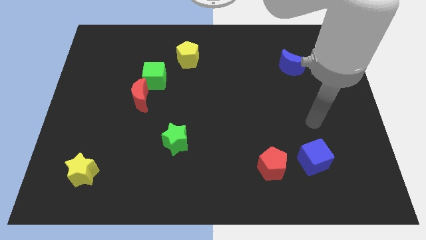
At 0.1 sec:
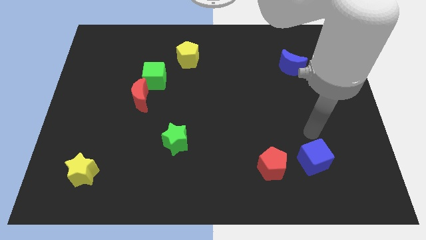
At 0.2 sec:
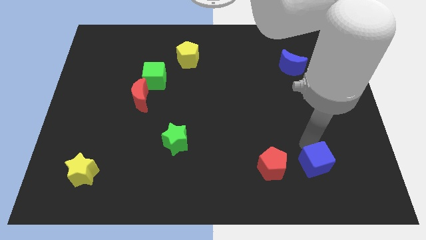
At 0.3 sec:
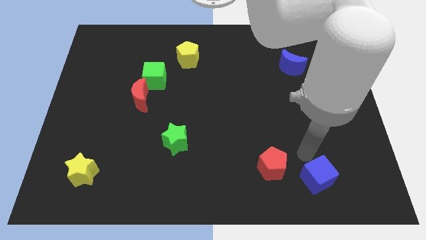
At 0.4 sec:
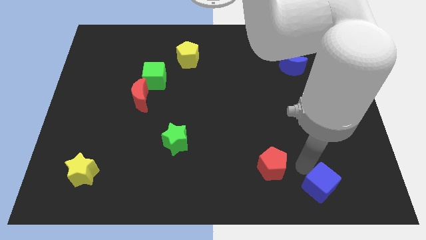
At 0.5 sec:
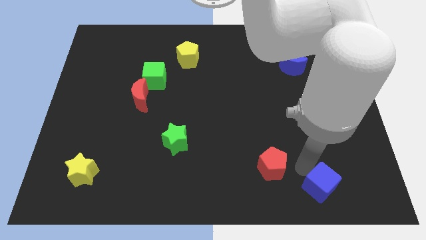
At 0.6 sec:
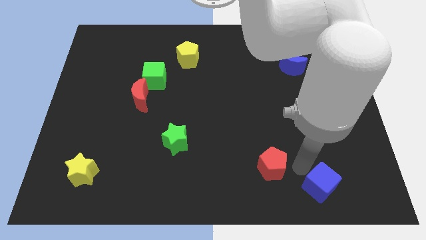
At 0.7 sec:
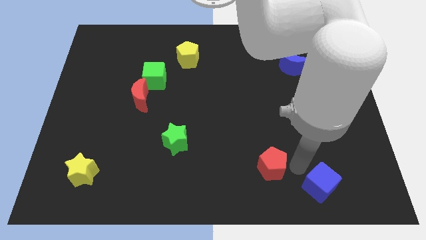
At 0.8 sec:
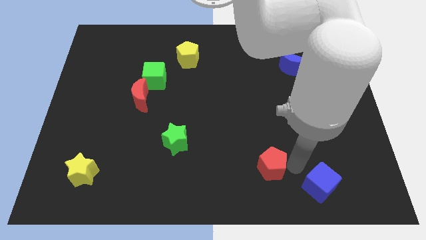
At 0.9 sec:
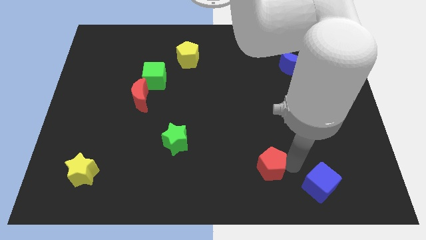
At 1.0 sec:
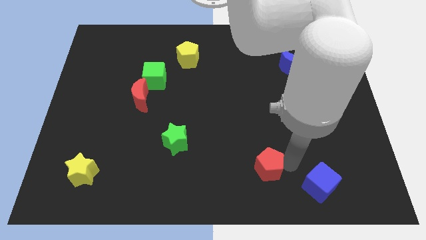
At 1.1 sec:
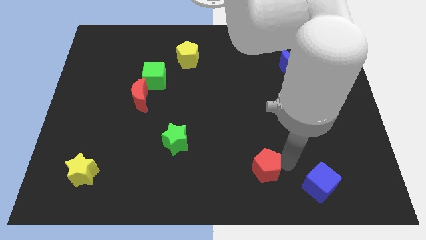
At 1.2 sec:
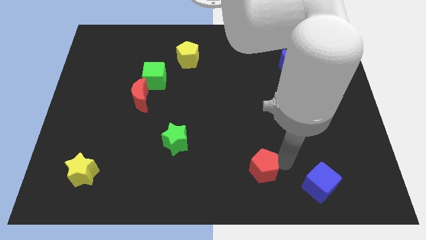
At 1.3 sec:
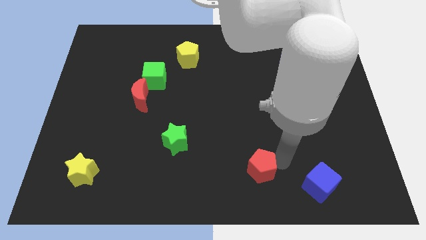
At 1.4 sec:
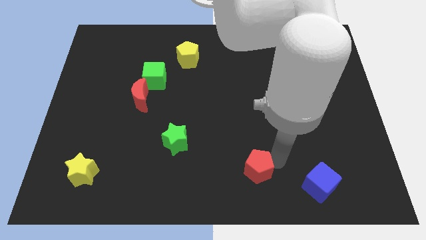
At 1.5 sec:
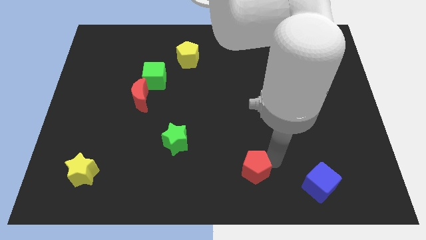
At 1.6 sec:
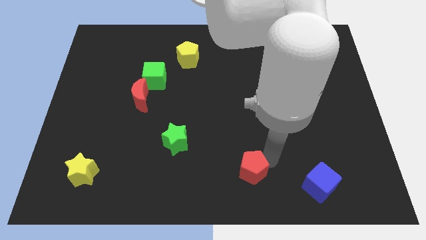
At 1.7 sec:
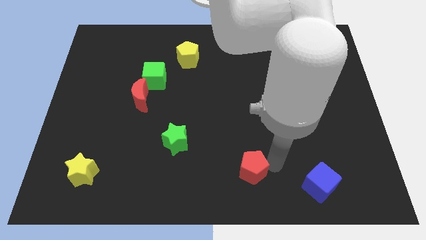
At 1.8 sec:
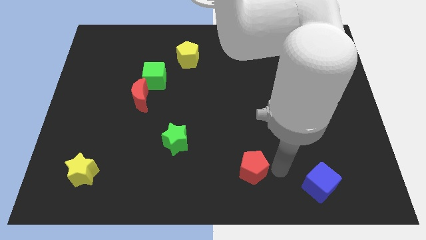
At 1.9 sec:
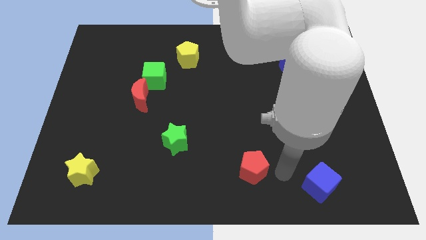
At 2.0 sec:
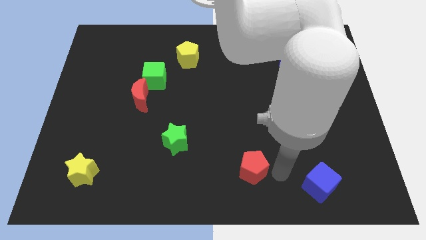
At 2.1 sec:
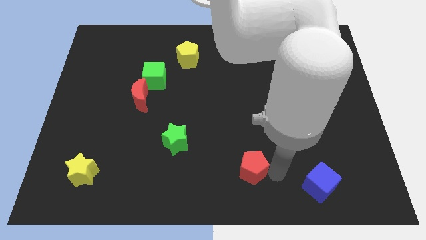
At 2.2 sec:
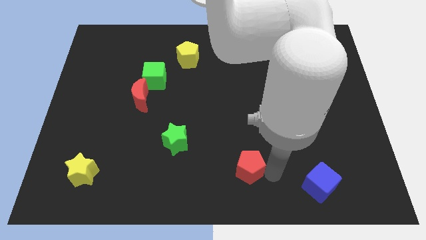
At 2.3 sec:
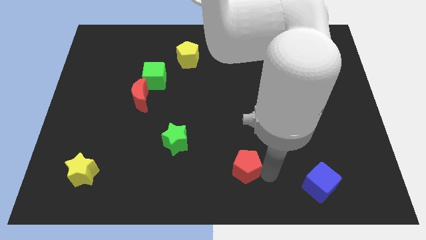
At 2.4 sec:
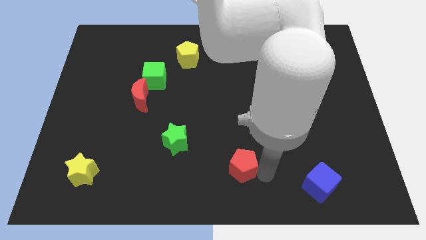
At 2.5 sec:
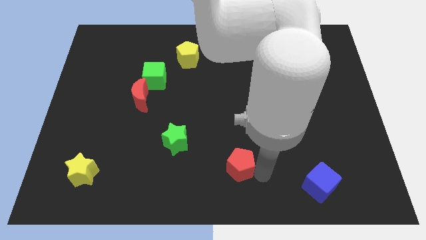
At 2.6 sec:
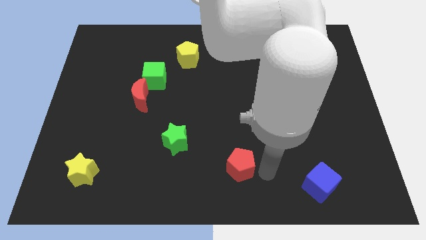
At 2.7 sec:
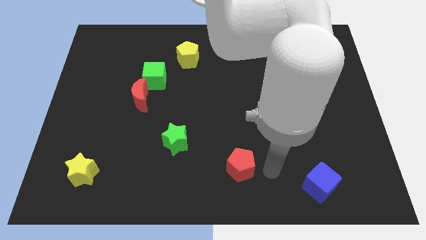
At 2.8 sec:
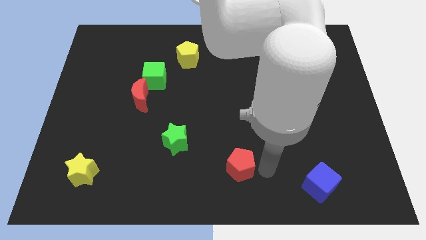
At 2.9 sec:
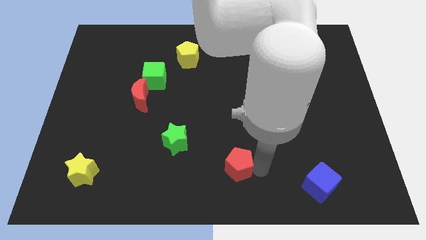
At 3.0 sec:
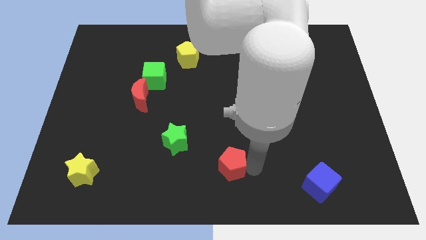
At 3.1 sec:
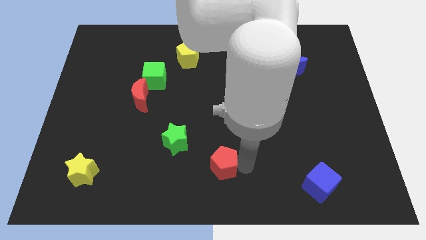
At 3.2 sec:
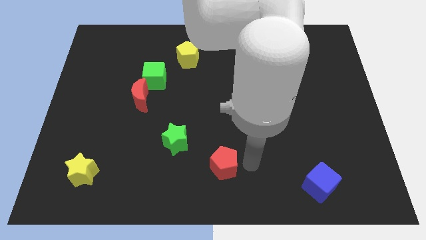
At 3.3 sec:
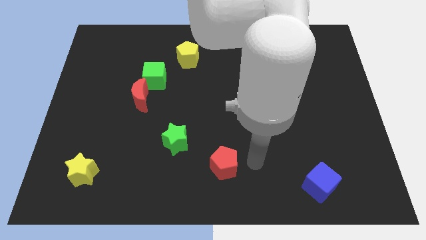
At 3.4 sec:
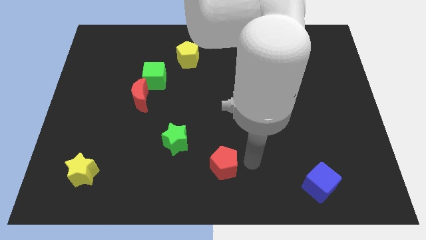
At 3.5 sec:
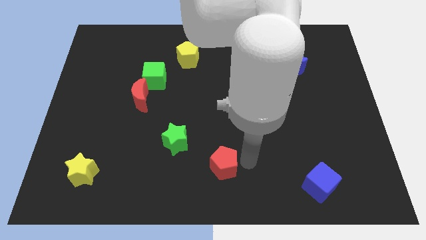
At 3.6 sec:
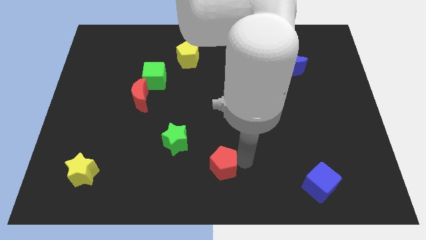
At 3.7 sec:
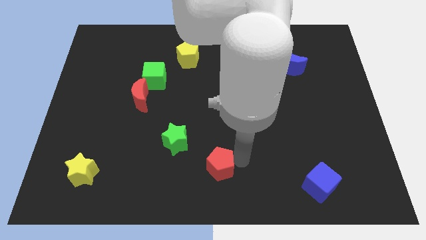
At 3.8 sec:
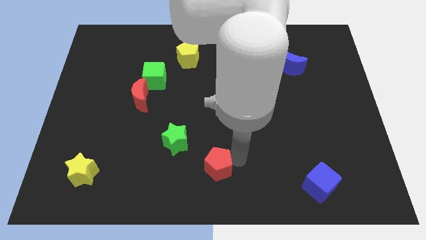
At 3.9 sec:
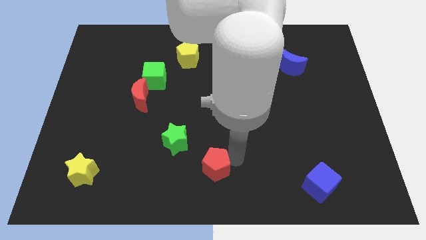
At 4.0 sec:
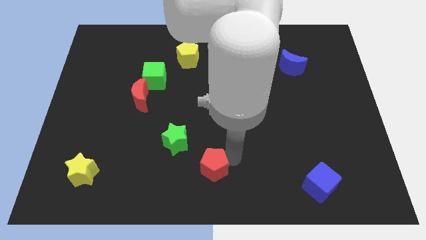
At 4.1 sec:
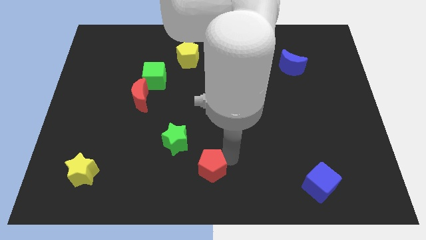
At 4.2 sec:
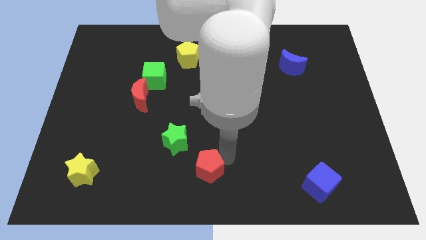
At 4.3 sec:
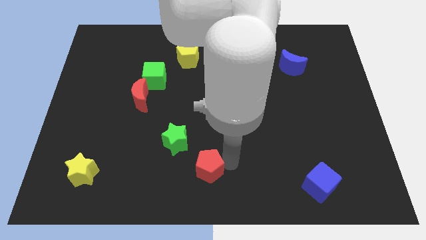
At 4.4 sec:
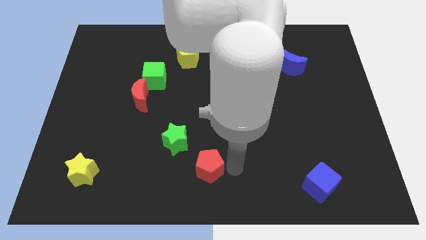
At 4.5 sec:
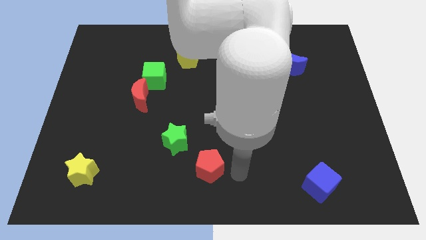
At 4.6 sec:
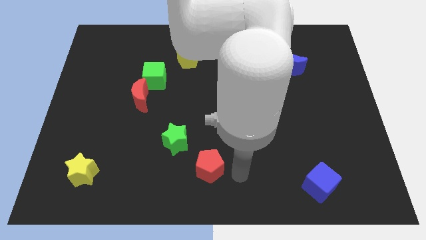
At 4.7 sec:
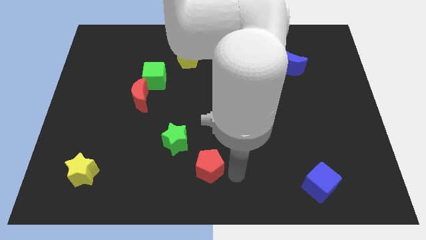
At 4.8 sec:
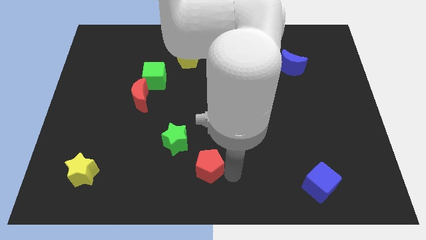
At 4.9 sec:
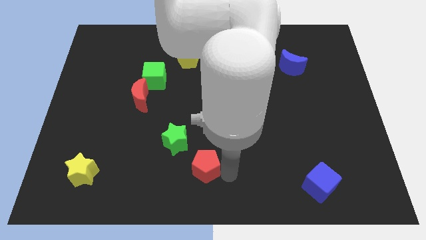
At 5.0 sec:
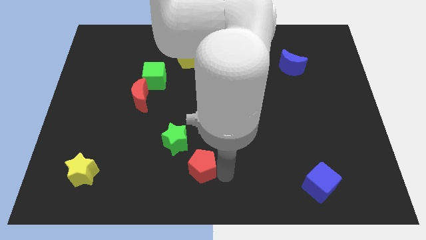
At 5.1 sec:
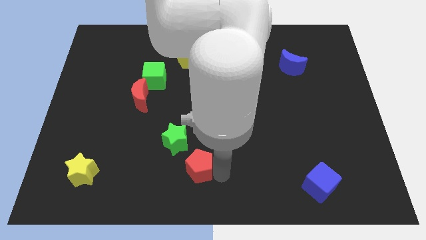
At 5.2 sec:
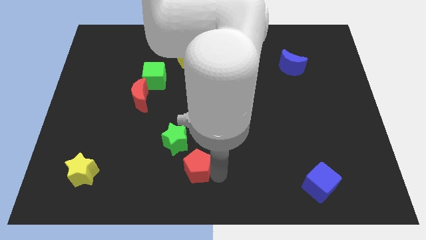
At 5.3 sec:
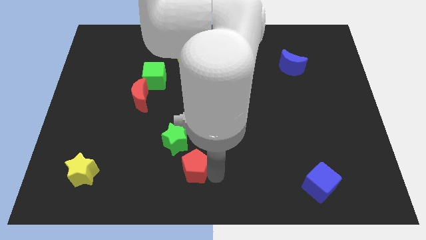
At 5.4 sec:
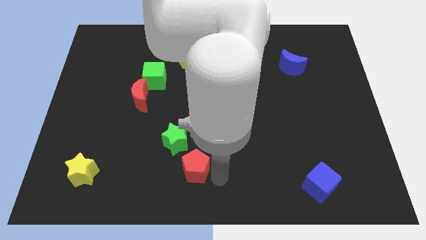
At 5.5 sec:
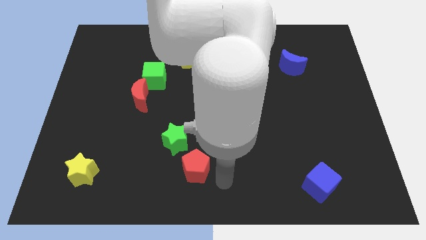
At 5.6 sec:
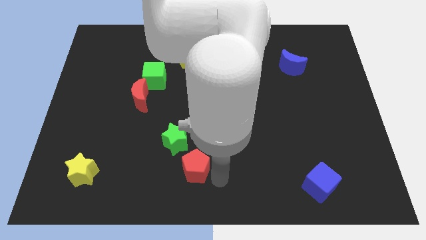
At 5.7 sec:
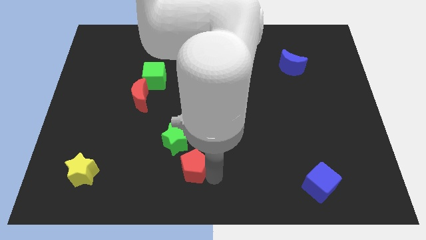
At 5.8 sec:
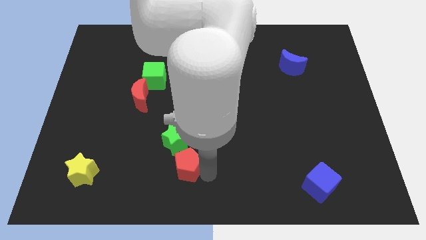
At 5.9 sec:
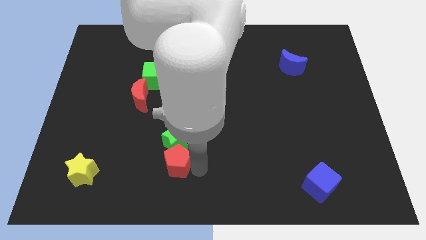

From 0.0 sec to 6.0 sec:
push the red pentagon to the left

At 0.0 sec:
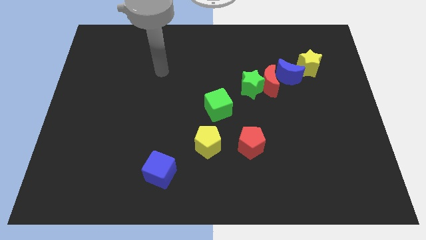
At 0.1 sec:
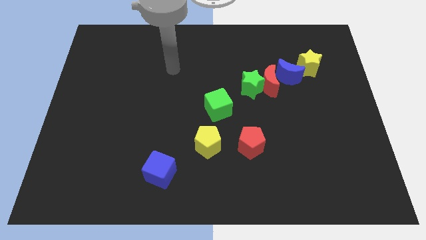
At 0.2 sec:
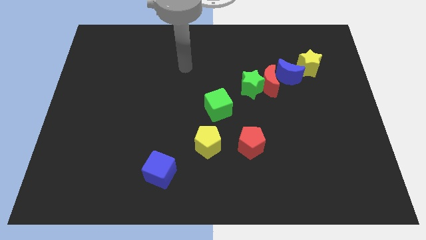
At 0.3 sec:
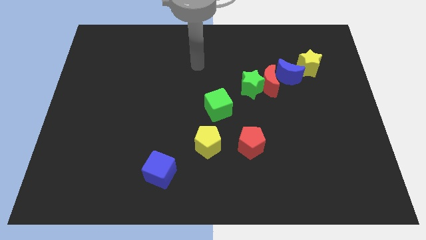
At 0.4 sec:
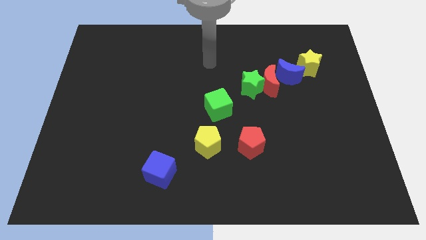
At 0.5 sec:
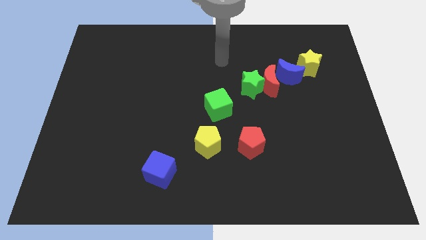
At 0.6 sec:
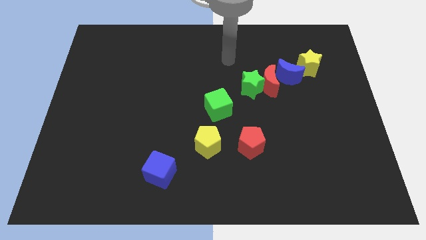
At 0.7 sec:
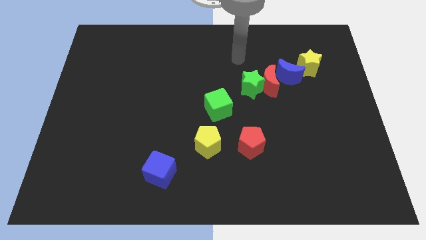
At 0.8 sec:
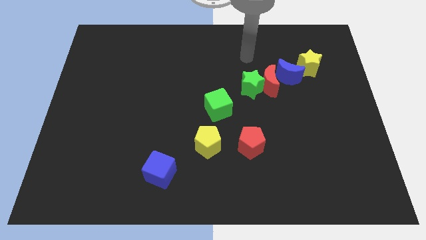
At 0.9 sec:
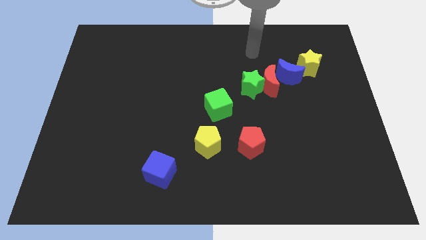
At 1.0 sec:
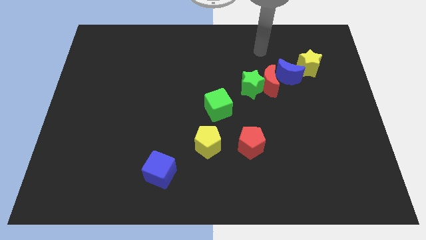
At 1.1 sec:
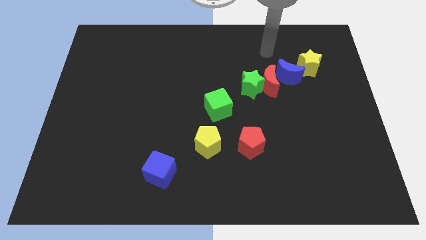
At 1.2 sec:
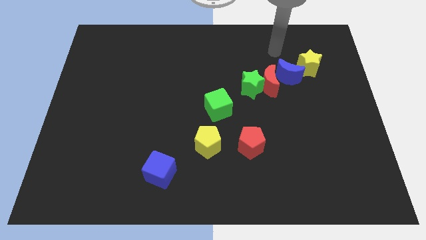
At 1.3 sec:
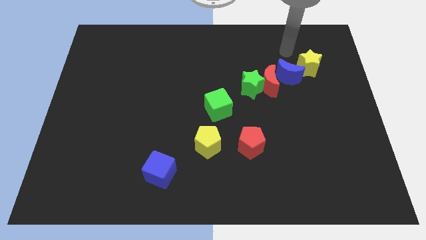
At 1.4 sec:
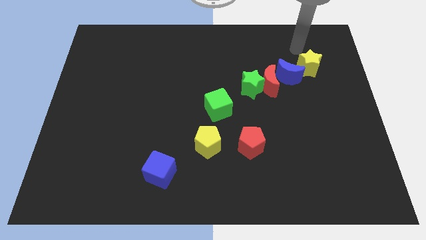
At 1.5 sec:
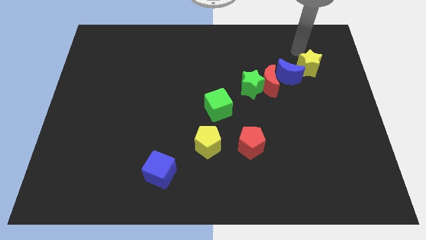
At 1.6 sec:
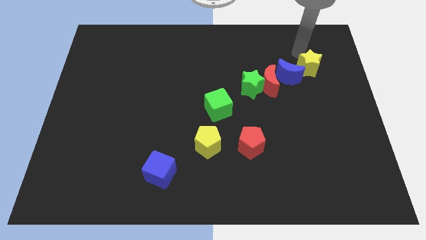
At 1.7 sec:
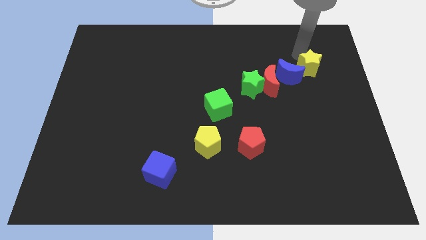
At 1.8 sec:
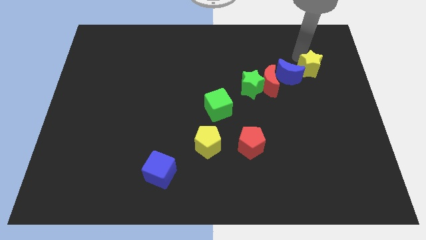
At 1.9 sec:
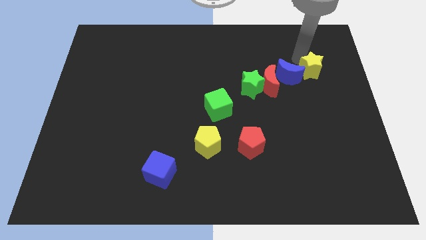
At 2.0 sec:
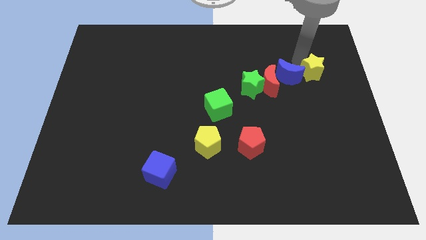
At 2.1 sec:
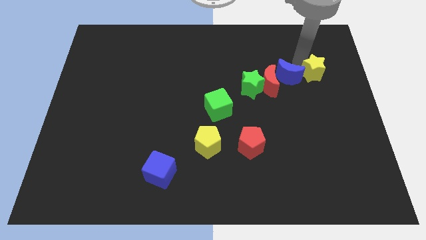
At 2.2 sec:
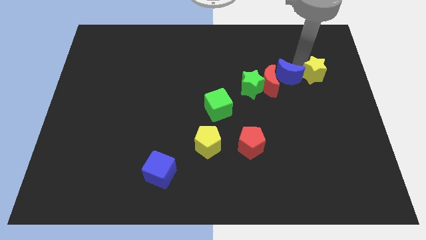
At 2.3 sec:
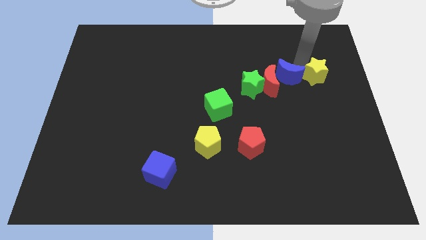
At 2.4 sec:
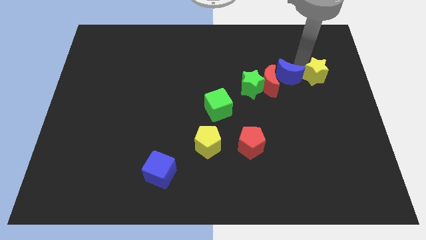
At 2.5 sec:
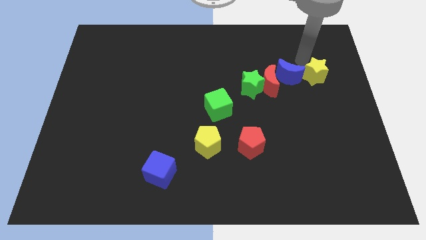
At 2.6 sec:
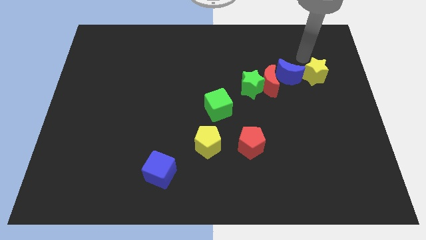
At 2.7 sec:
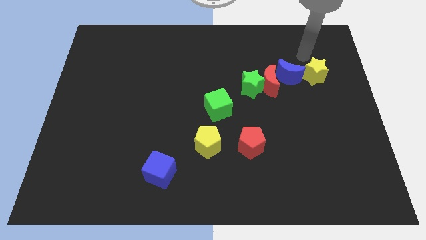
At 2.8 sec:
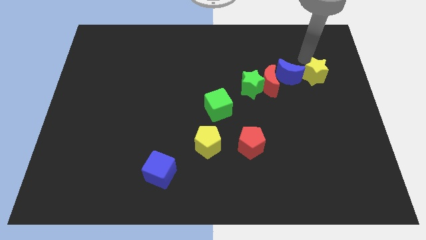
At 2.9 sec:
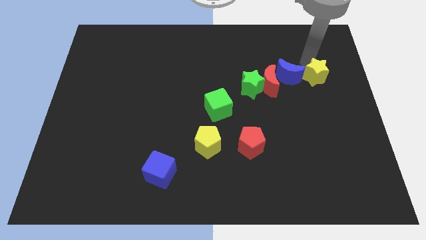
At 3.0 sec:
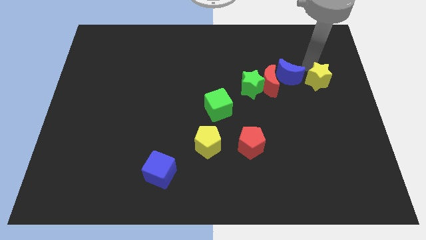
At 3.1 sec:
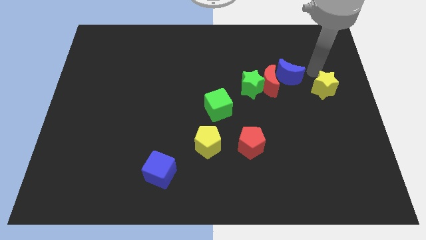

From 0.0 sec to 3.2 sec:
slide the yellow star downwards slightly
